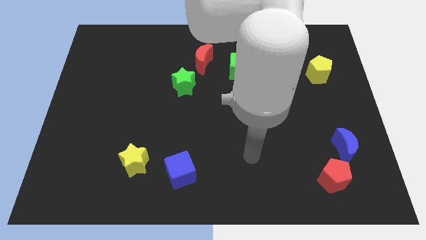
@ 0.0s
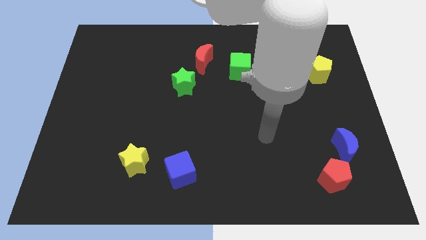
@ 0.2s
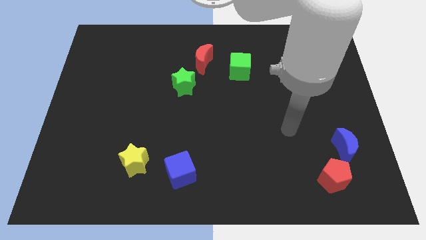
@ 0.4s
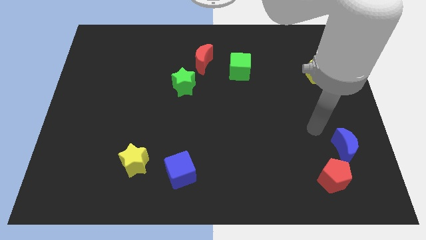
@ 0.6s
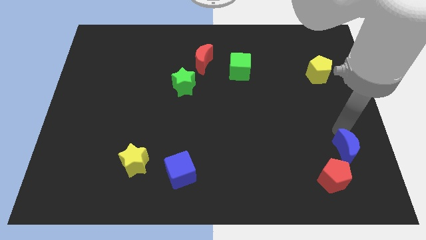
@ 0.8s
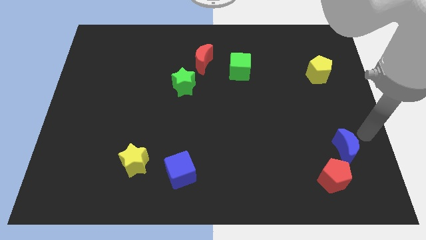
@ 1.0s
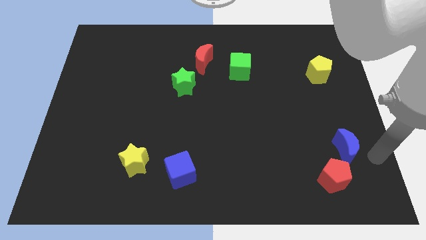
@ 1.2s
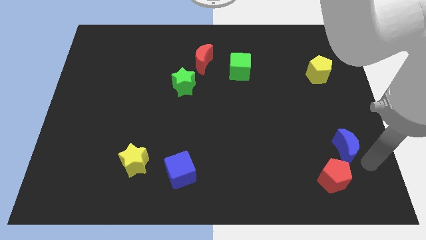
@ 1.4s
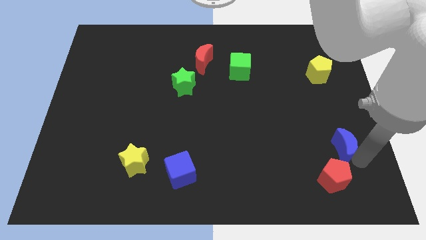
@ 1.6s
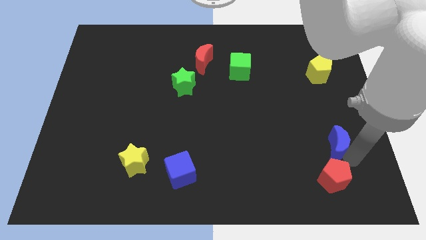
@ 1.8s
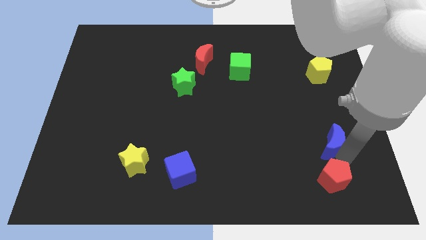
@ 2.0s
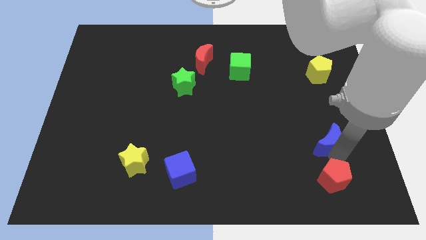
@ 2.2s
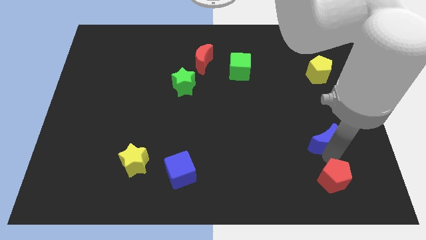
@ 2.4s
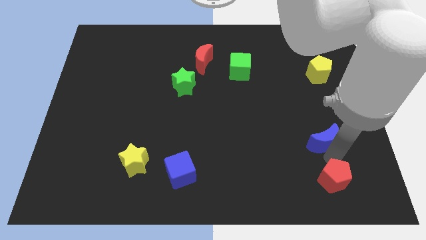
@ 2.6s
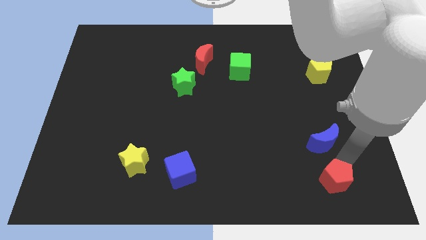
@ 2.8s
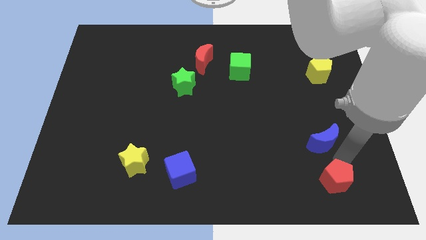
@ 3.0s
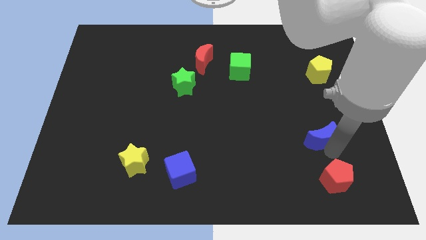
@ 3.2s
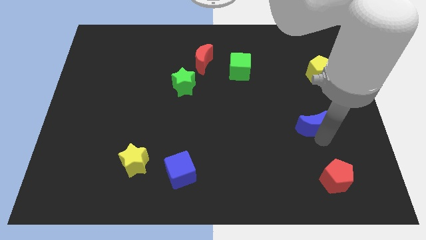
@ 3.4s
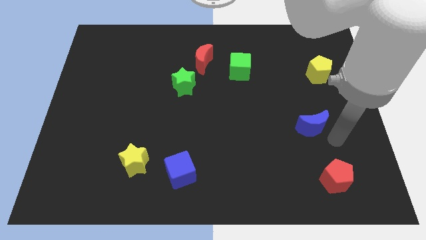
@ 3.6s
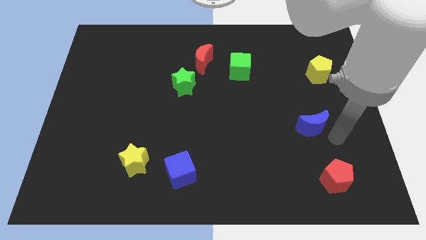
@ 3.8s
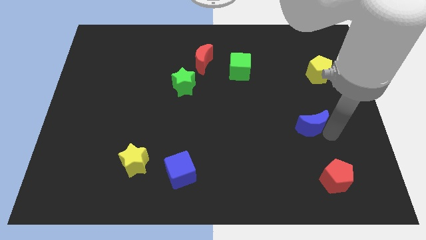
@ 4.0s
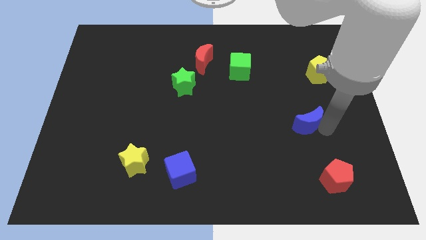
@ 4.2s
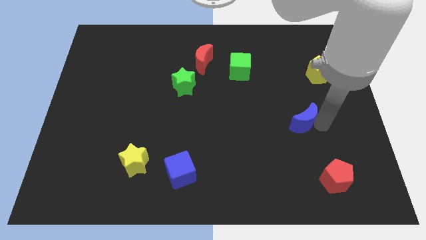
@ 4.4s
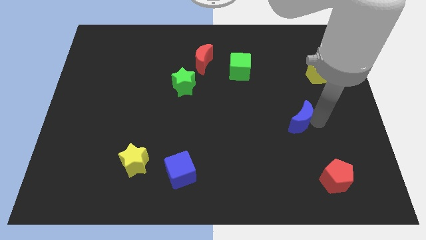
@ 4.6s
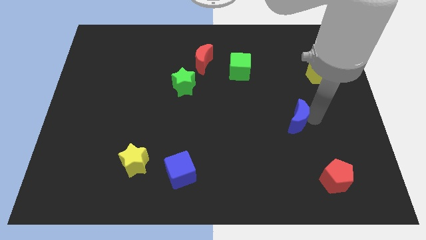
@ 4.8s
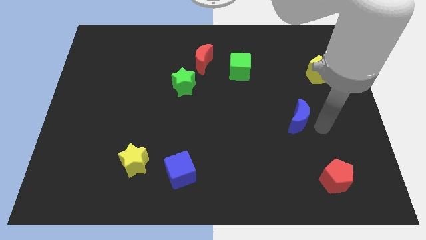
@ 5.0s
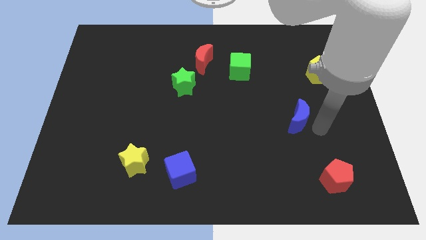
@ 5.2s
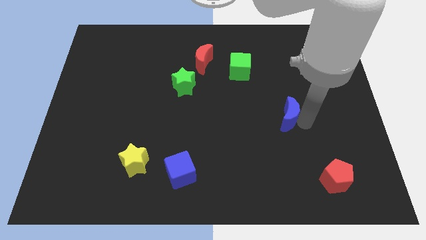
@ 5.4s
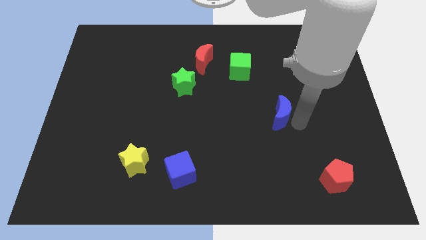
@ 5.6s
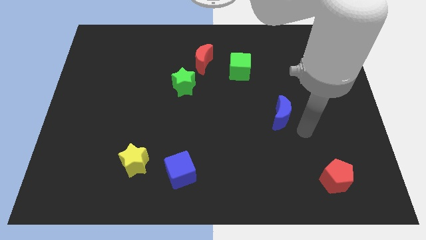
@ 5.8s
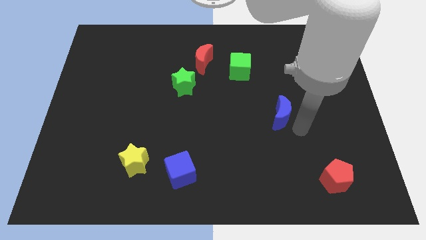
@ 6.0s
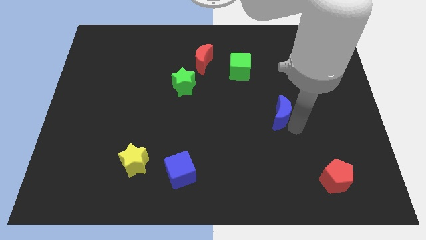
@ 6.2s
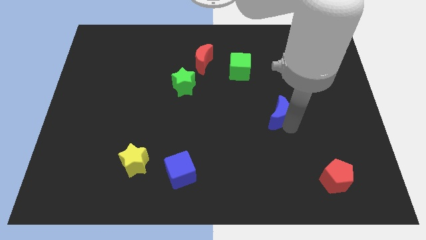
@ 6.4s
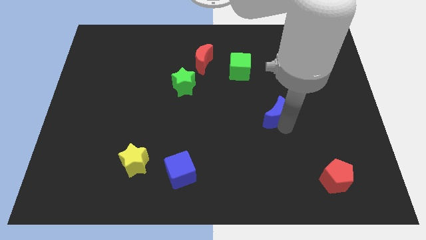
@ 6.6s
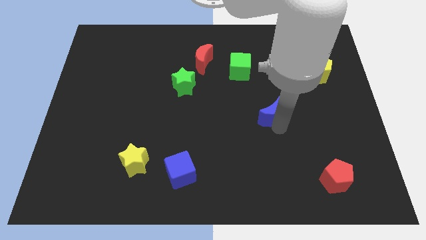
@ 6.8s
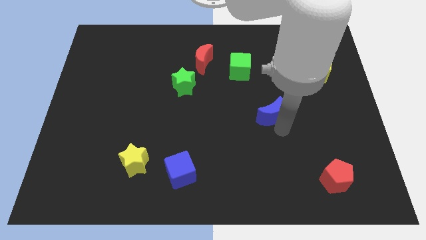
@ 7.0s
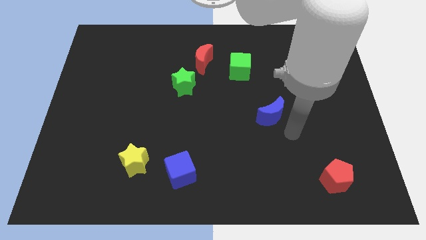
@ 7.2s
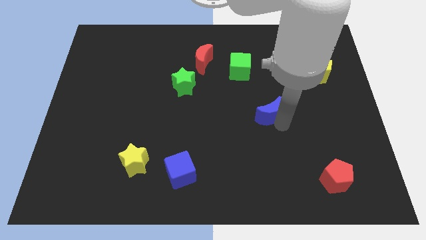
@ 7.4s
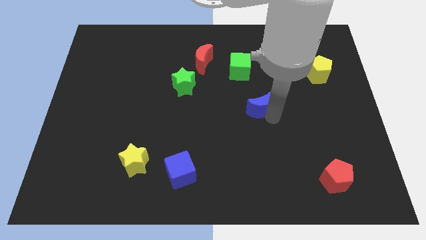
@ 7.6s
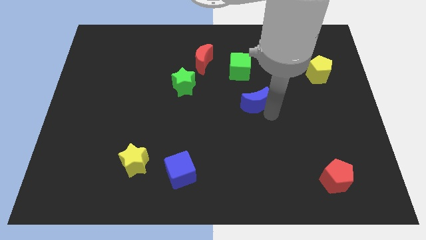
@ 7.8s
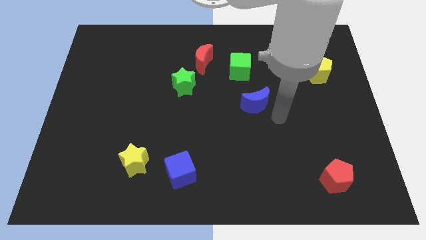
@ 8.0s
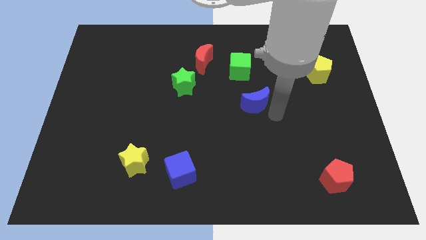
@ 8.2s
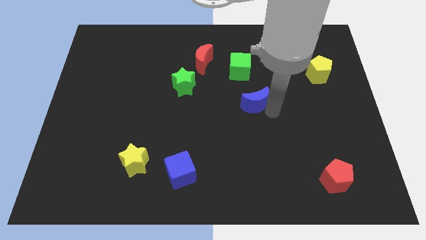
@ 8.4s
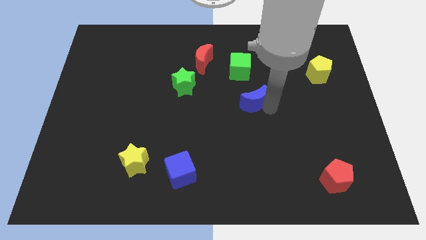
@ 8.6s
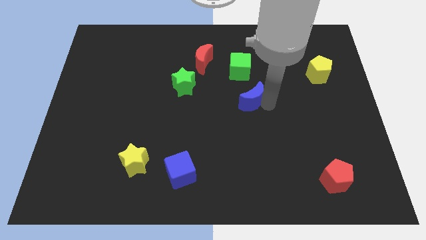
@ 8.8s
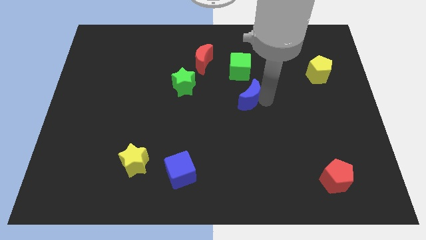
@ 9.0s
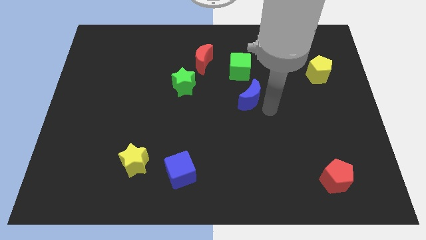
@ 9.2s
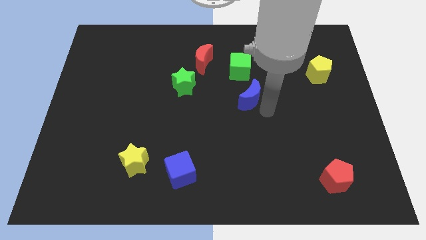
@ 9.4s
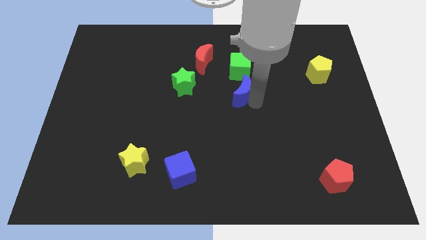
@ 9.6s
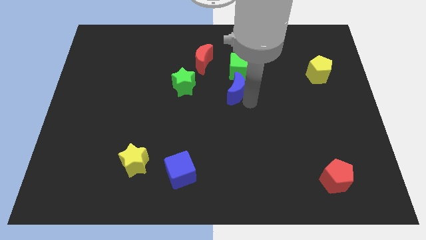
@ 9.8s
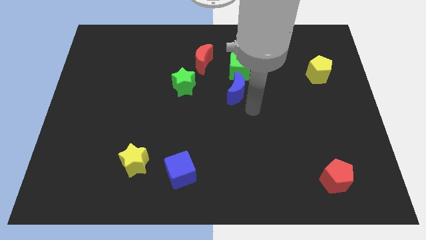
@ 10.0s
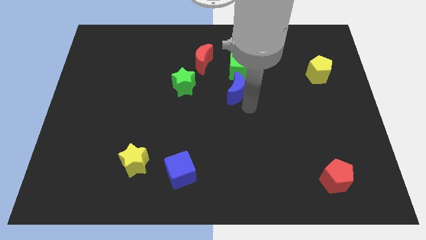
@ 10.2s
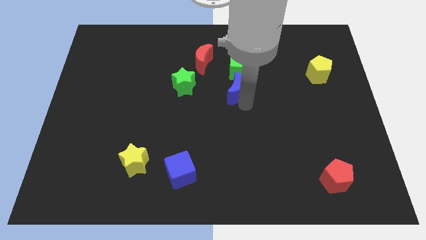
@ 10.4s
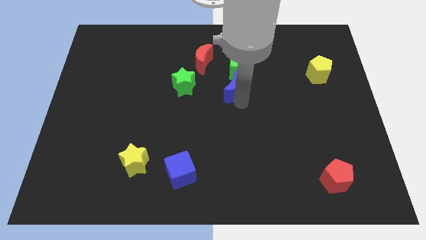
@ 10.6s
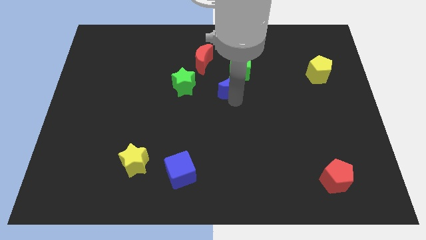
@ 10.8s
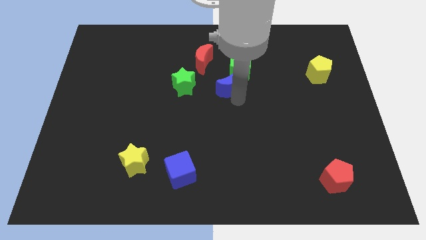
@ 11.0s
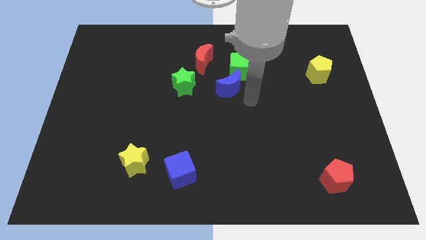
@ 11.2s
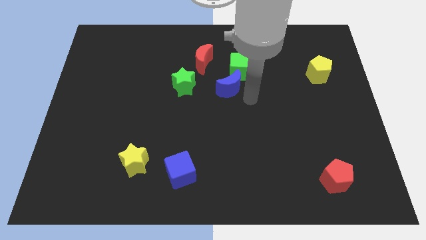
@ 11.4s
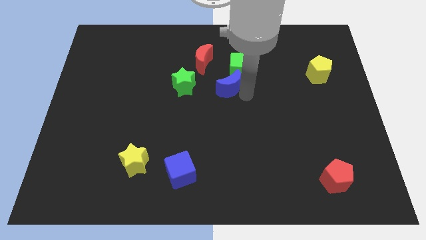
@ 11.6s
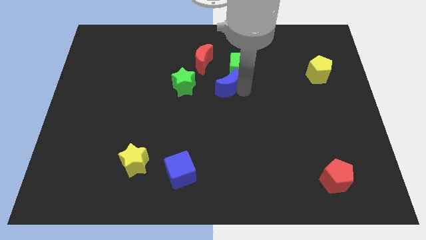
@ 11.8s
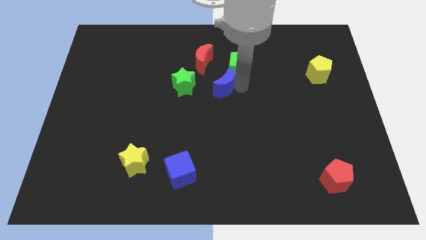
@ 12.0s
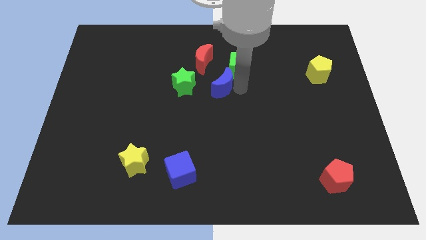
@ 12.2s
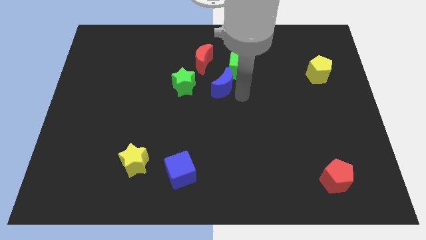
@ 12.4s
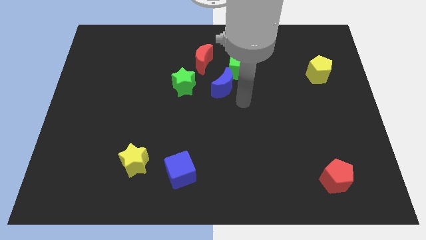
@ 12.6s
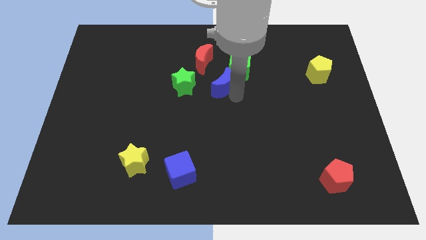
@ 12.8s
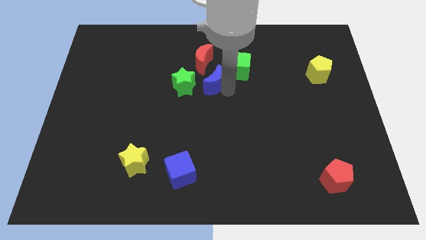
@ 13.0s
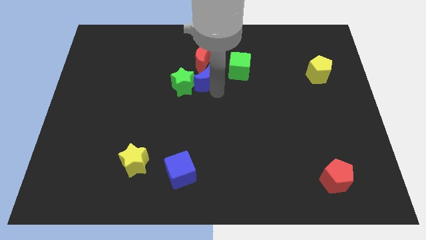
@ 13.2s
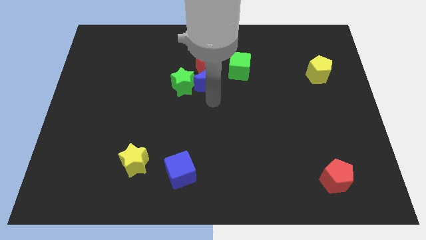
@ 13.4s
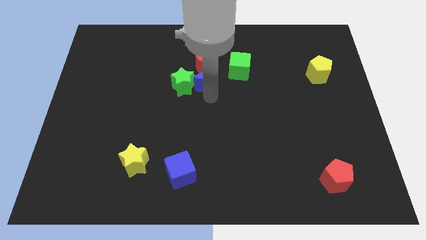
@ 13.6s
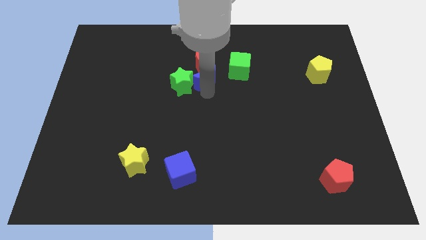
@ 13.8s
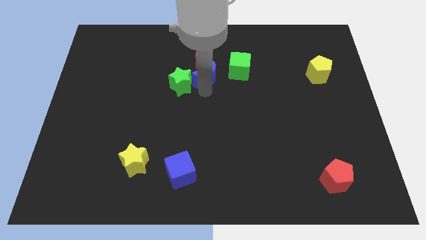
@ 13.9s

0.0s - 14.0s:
push the blue moon towards the red moon

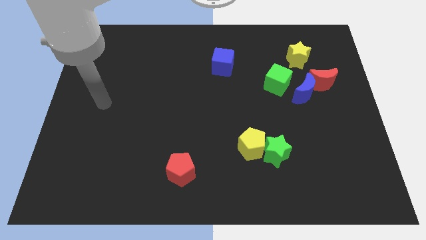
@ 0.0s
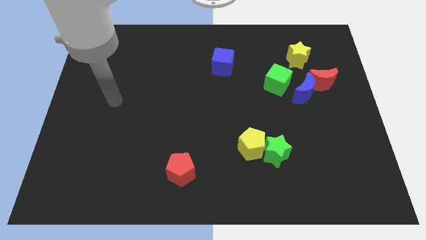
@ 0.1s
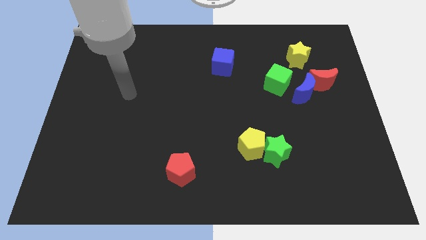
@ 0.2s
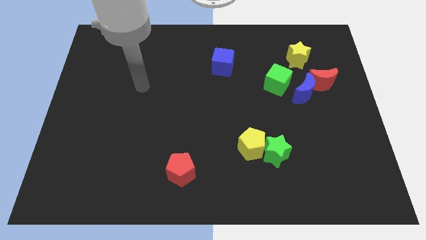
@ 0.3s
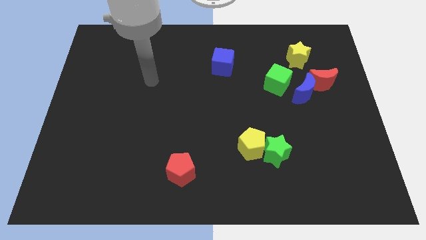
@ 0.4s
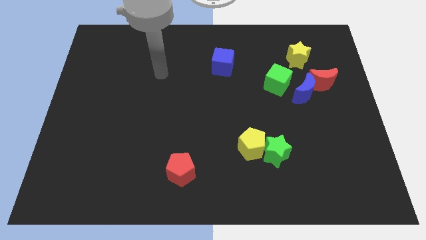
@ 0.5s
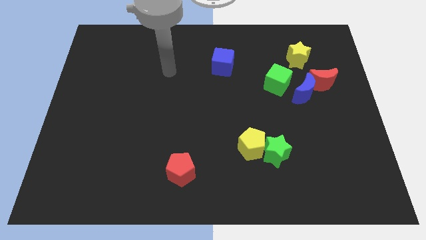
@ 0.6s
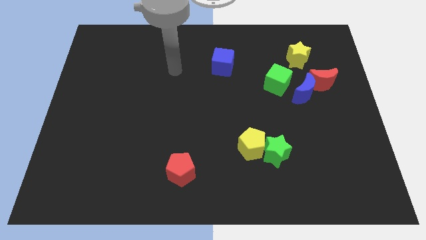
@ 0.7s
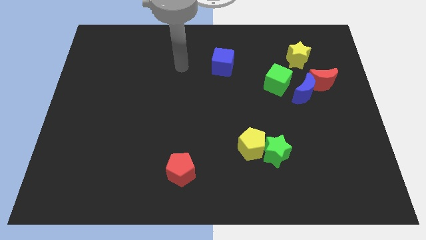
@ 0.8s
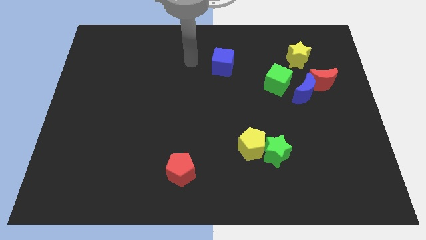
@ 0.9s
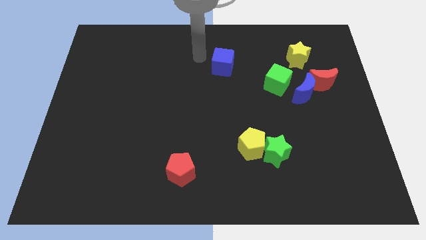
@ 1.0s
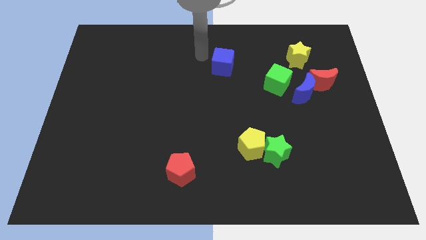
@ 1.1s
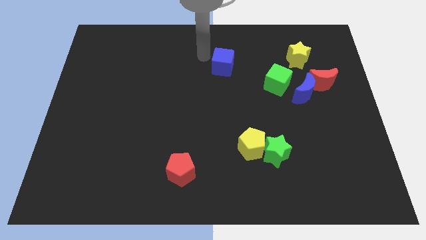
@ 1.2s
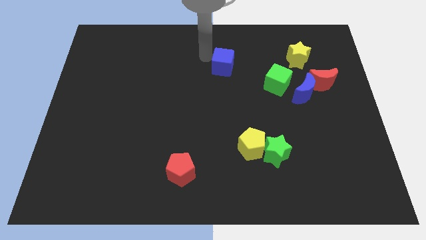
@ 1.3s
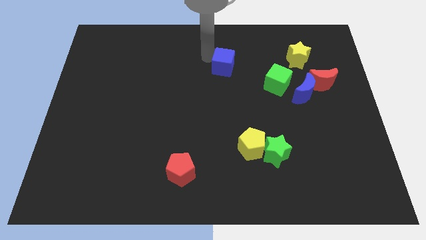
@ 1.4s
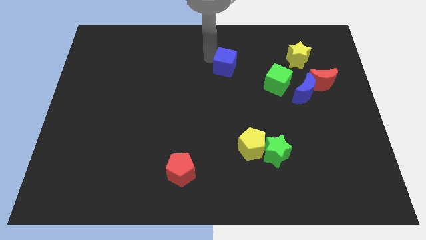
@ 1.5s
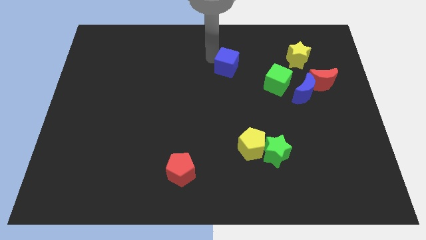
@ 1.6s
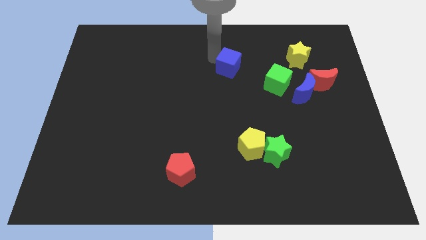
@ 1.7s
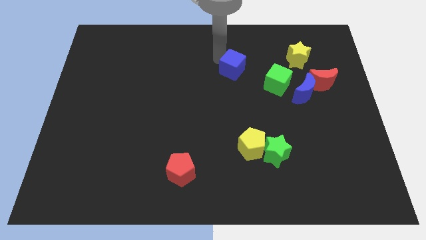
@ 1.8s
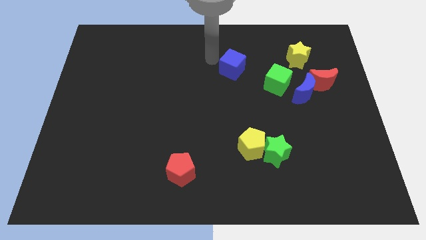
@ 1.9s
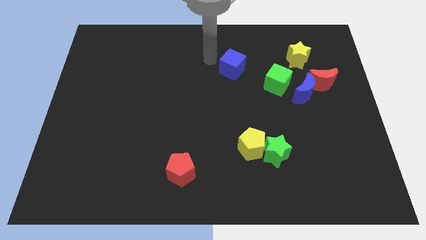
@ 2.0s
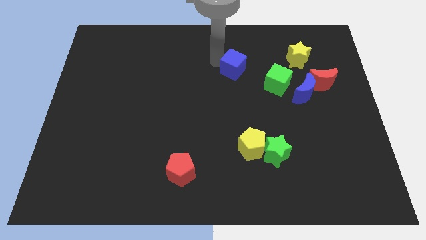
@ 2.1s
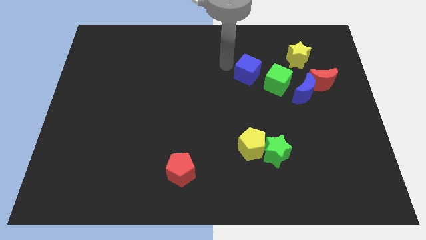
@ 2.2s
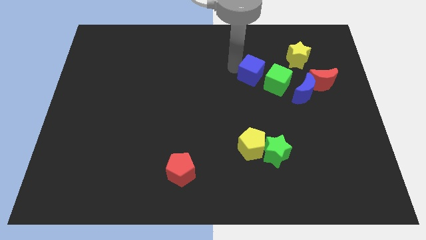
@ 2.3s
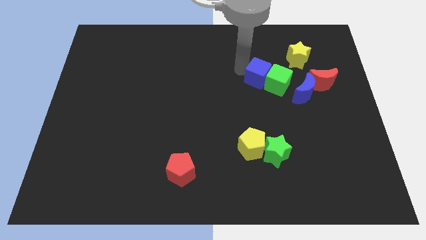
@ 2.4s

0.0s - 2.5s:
put the blue cube next to the green cube
